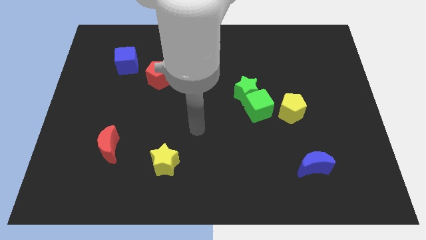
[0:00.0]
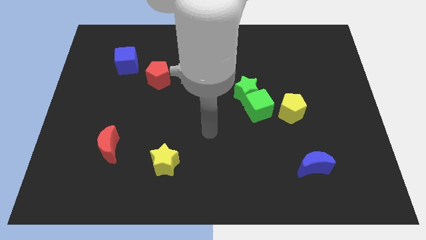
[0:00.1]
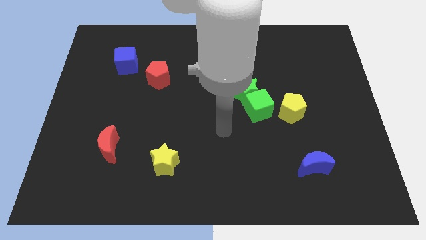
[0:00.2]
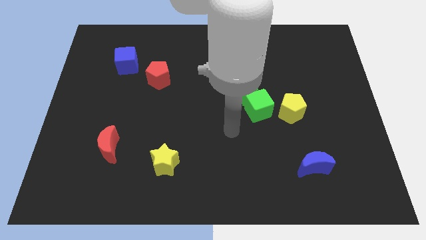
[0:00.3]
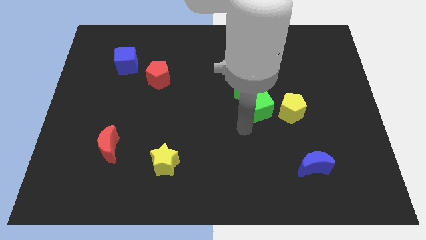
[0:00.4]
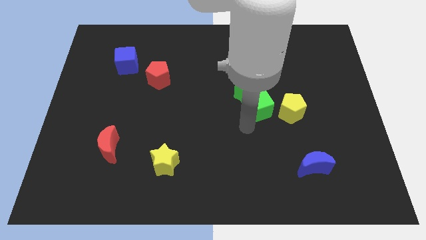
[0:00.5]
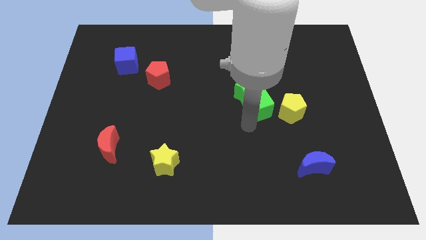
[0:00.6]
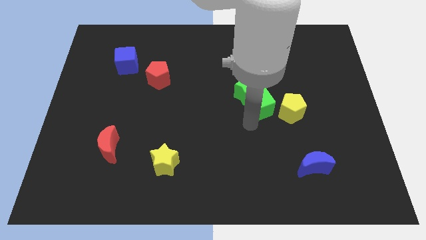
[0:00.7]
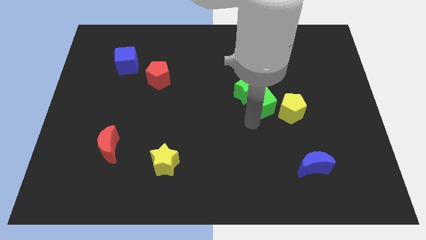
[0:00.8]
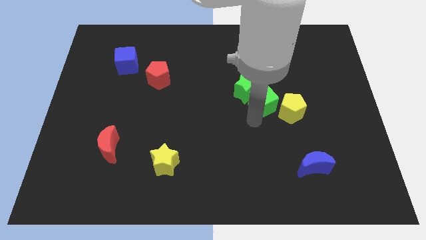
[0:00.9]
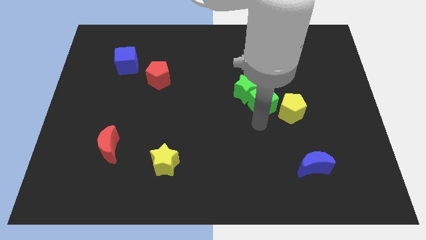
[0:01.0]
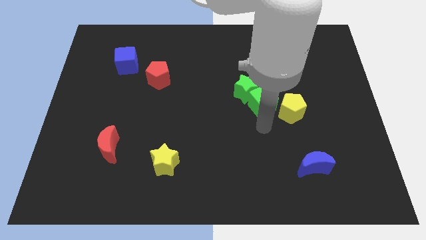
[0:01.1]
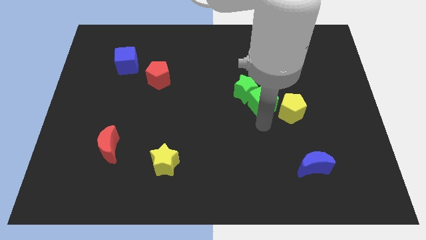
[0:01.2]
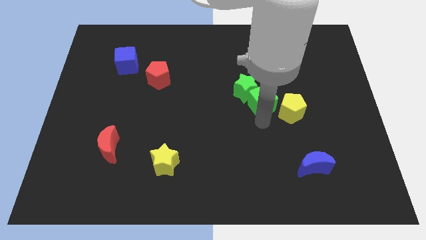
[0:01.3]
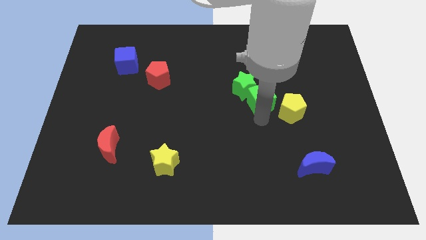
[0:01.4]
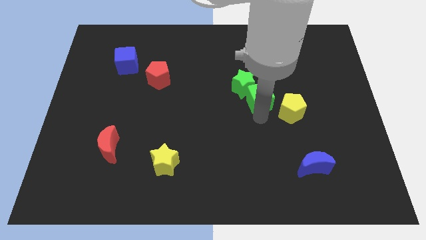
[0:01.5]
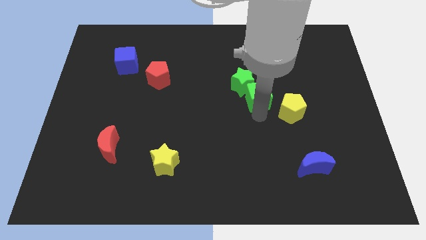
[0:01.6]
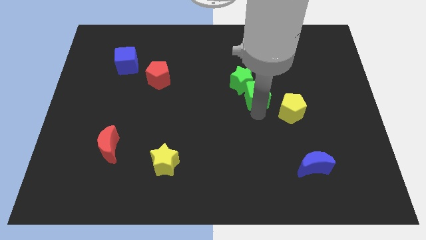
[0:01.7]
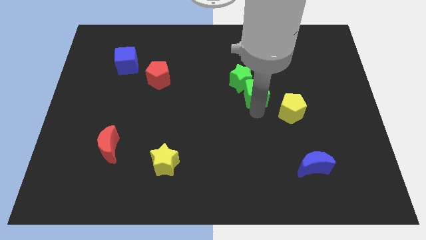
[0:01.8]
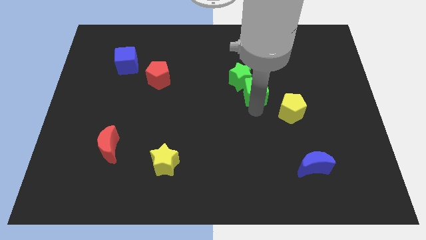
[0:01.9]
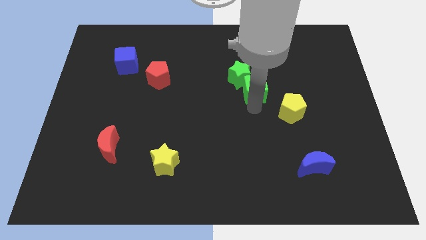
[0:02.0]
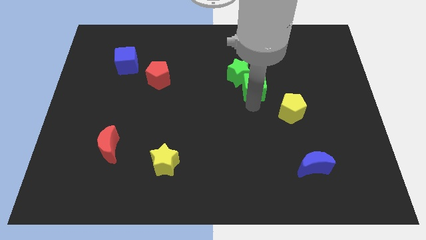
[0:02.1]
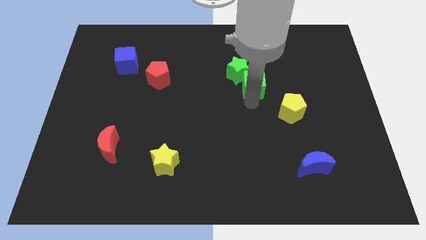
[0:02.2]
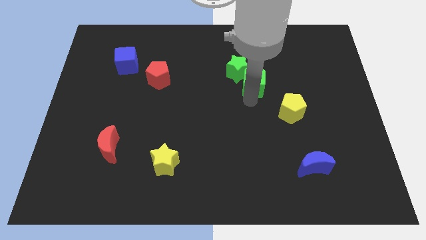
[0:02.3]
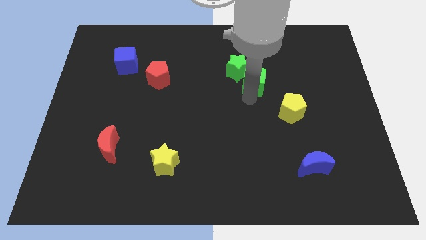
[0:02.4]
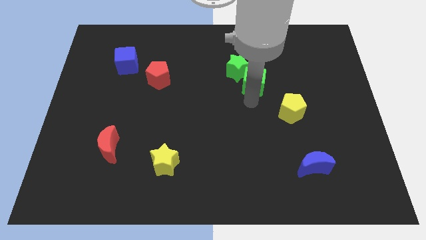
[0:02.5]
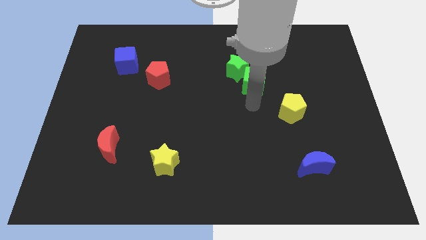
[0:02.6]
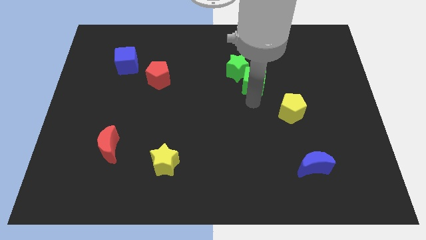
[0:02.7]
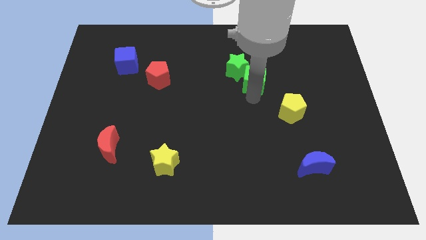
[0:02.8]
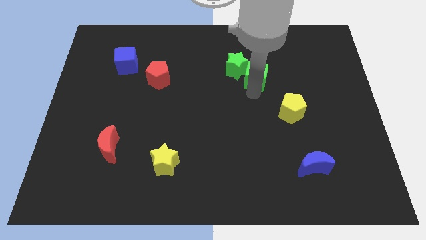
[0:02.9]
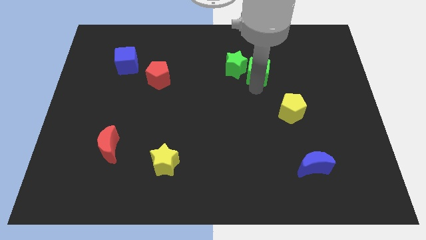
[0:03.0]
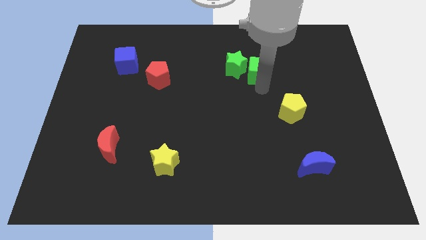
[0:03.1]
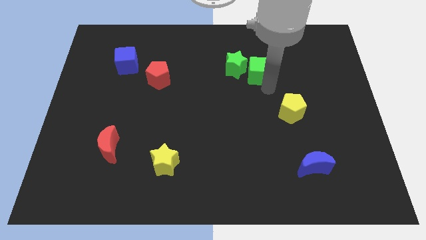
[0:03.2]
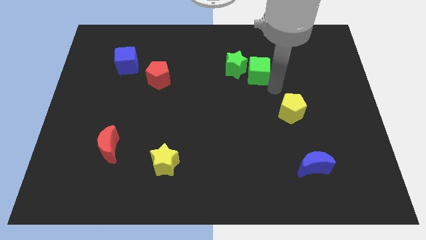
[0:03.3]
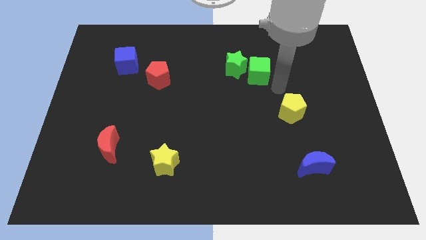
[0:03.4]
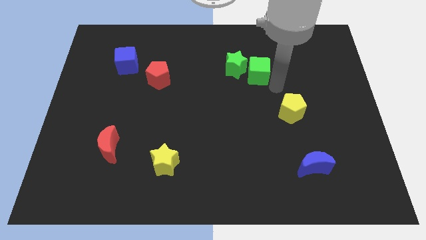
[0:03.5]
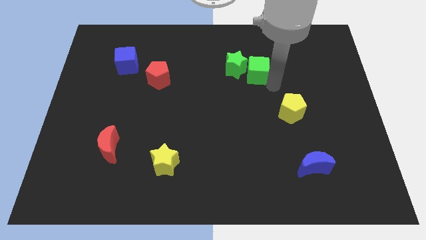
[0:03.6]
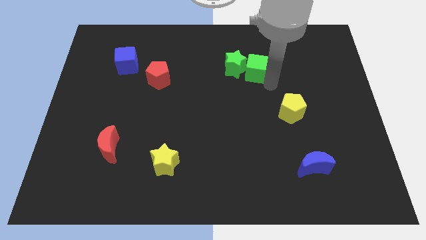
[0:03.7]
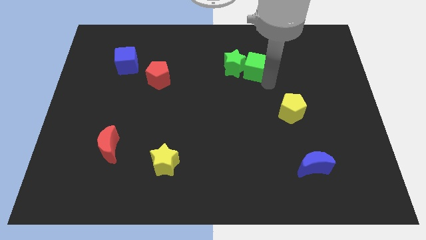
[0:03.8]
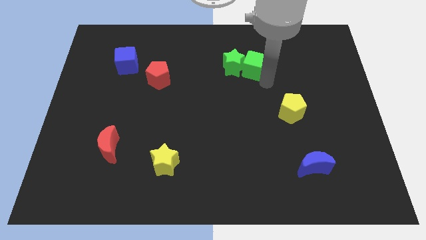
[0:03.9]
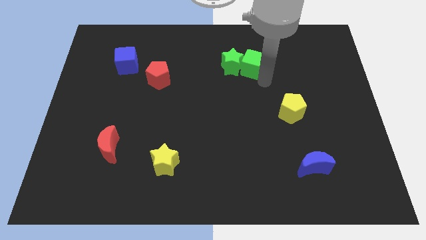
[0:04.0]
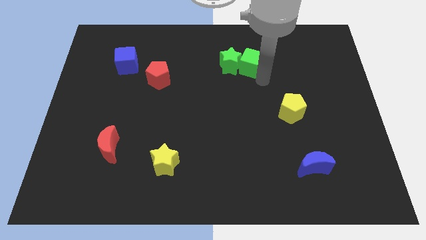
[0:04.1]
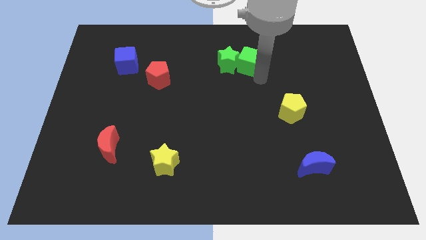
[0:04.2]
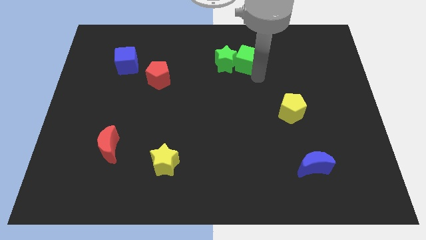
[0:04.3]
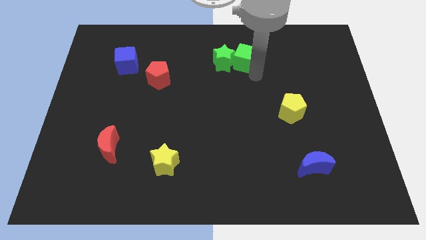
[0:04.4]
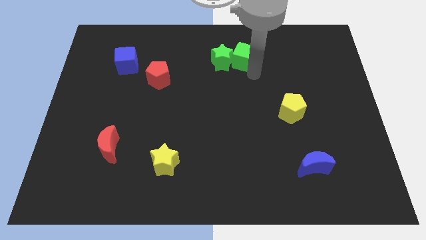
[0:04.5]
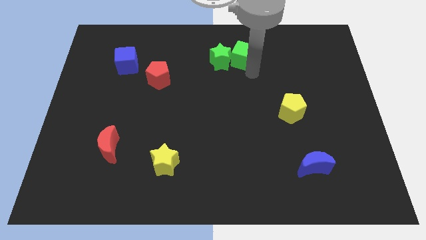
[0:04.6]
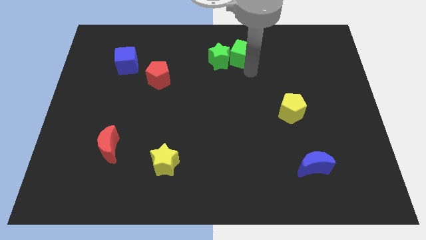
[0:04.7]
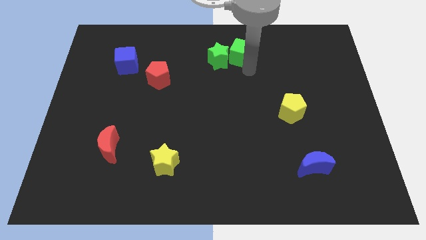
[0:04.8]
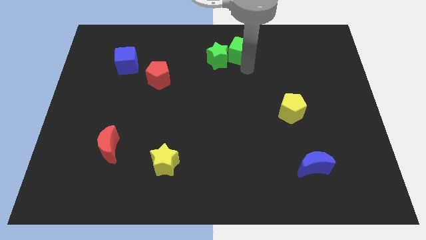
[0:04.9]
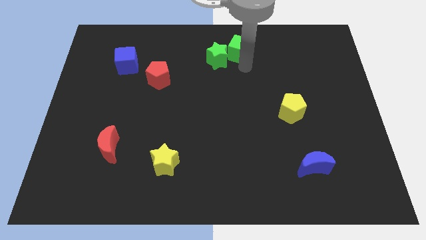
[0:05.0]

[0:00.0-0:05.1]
put the green cube to the top side

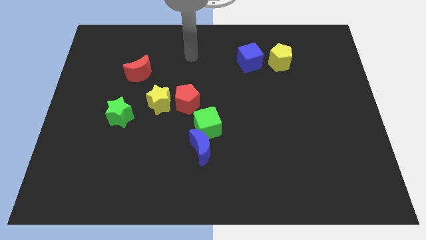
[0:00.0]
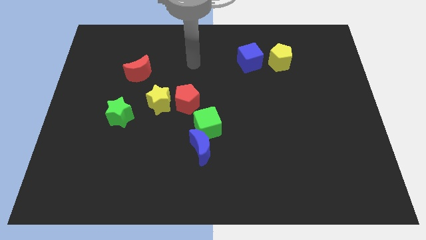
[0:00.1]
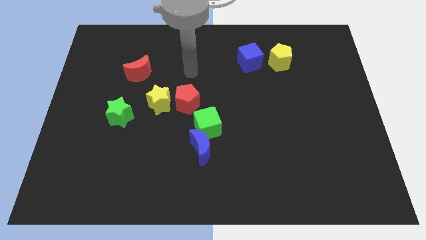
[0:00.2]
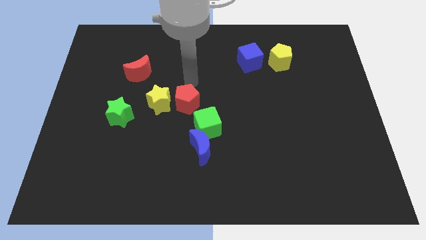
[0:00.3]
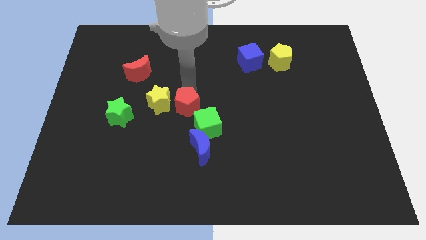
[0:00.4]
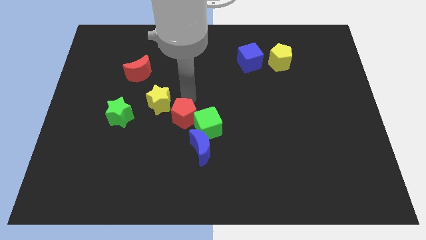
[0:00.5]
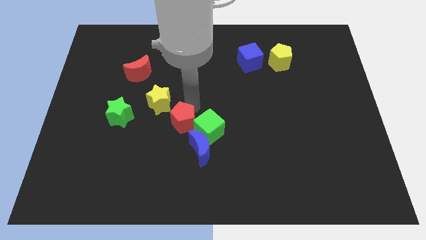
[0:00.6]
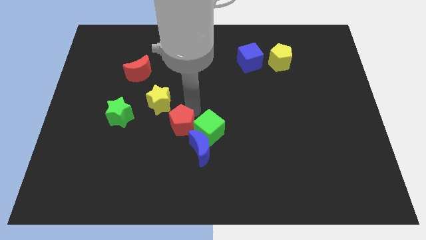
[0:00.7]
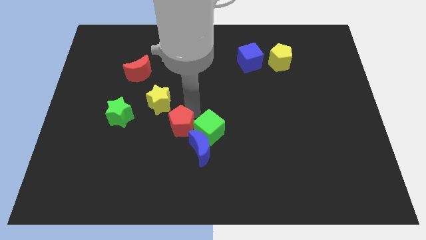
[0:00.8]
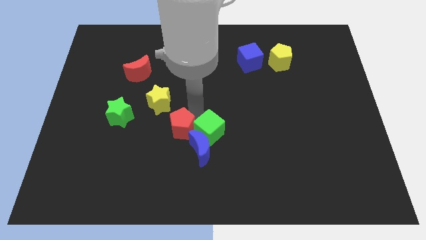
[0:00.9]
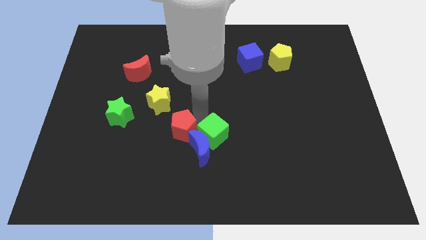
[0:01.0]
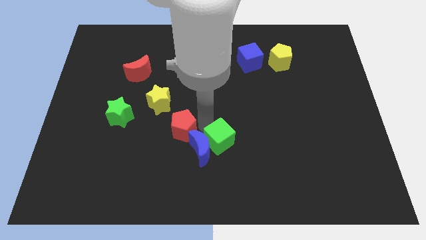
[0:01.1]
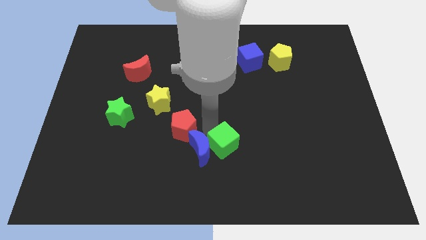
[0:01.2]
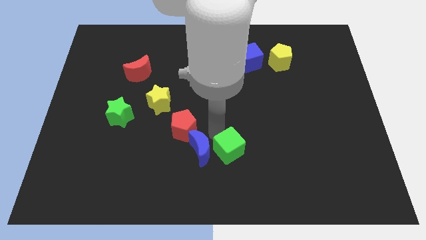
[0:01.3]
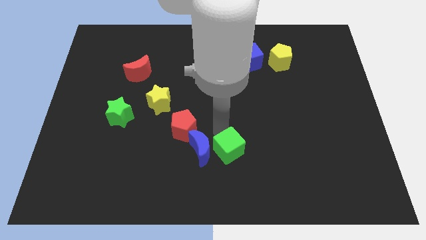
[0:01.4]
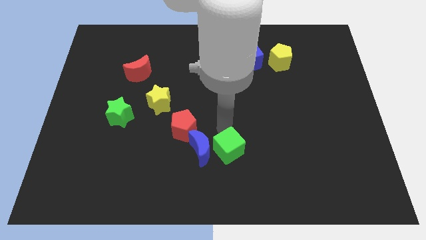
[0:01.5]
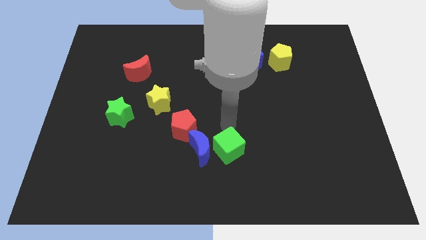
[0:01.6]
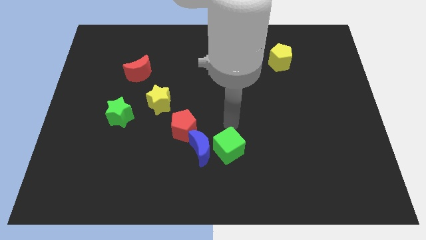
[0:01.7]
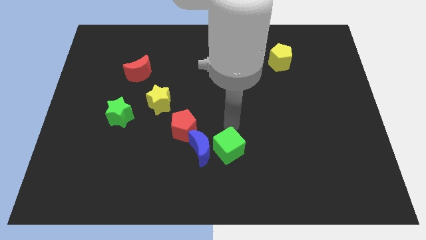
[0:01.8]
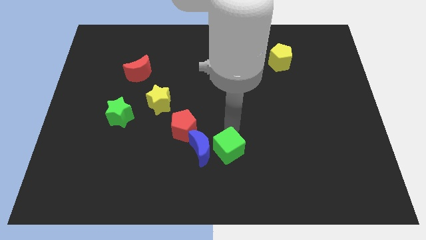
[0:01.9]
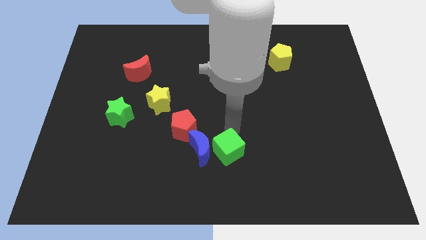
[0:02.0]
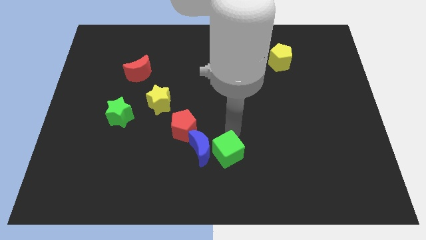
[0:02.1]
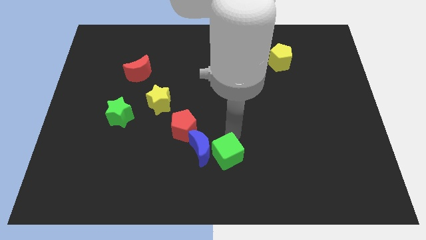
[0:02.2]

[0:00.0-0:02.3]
move the green cube to the bottom side
